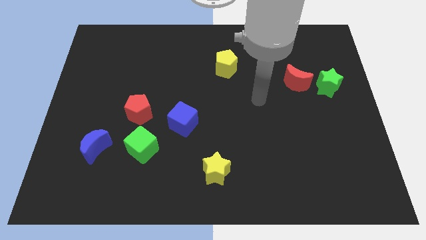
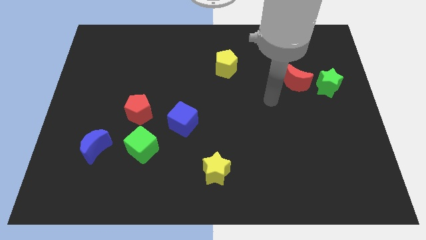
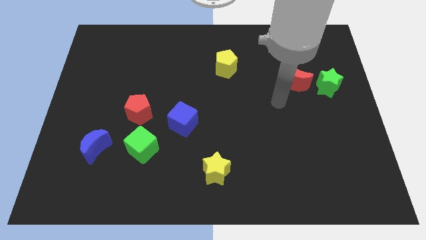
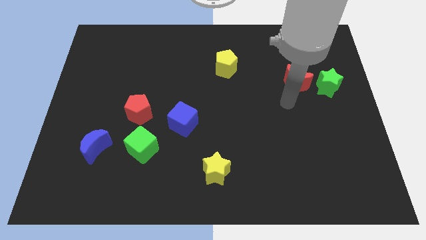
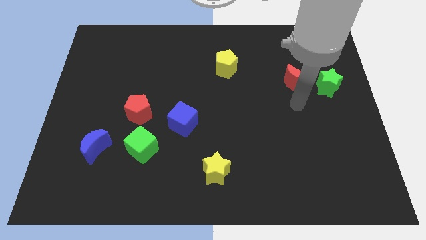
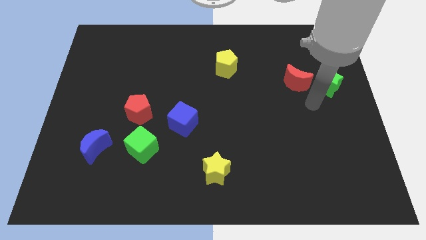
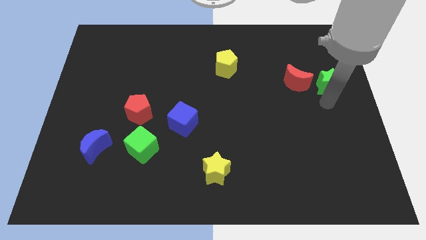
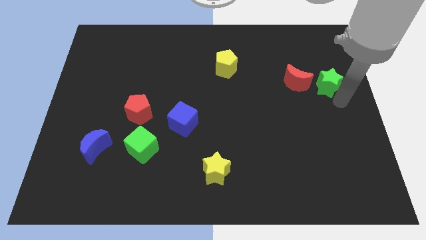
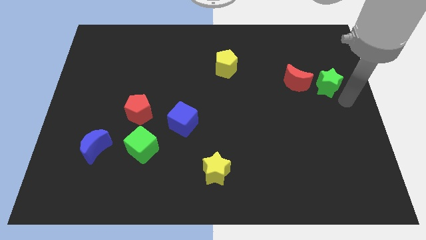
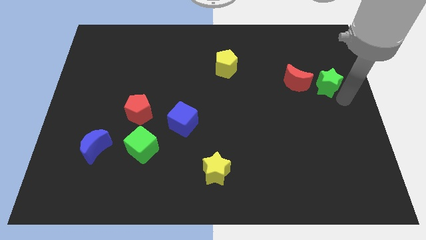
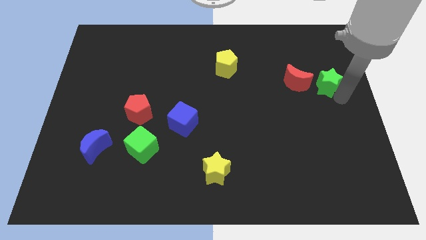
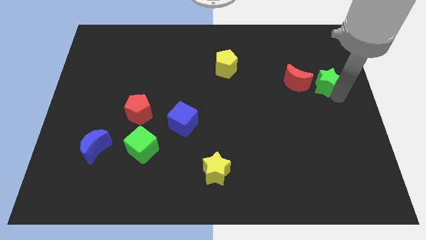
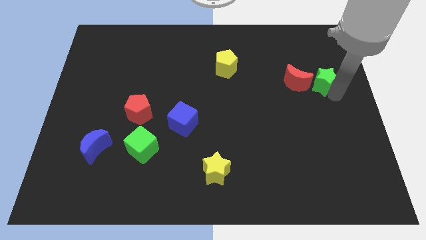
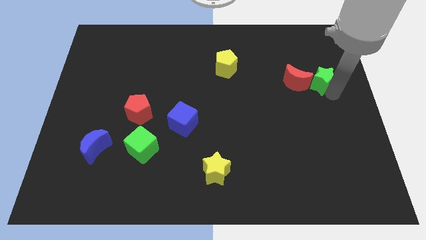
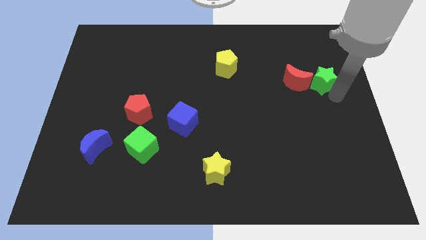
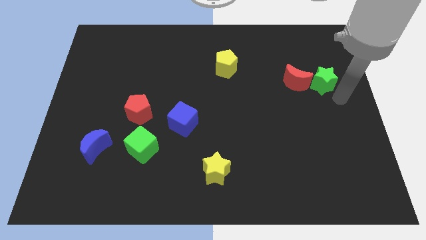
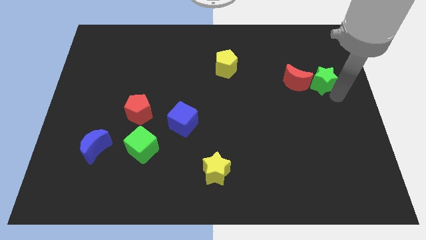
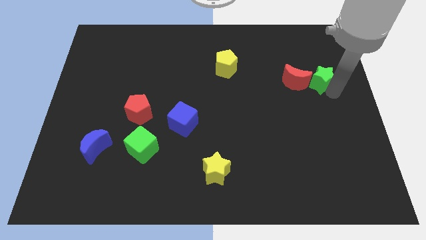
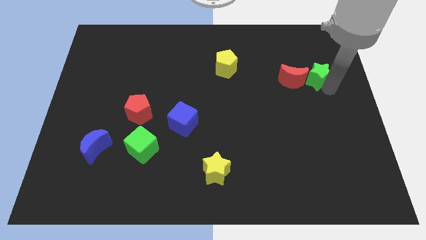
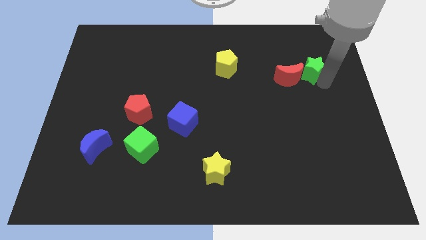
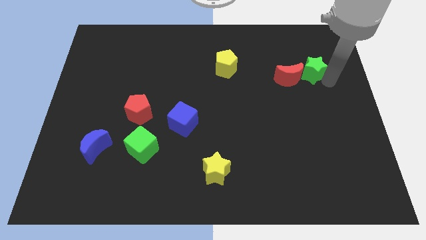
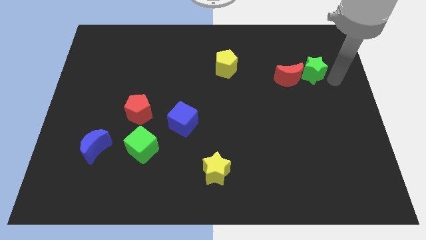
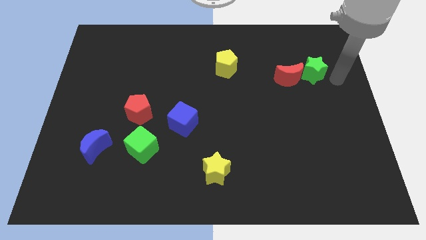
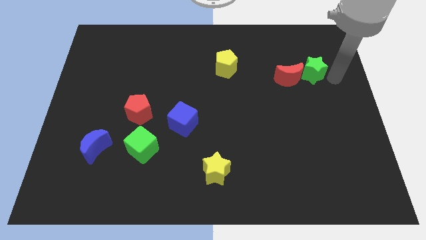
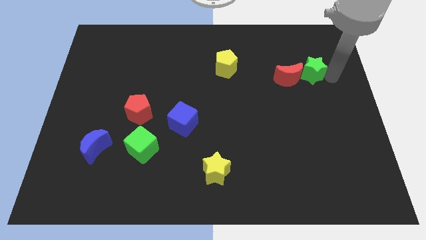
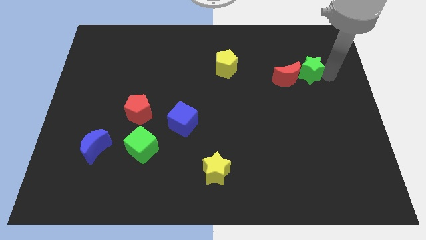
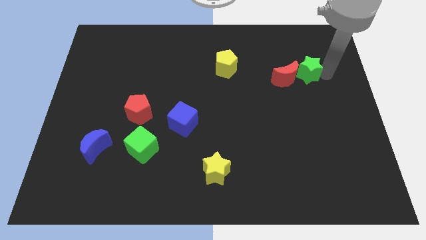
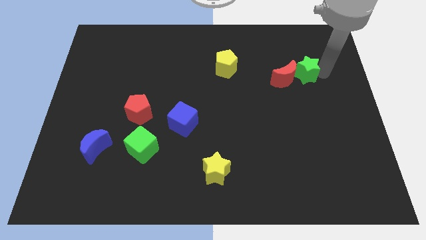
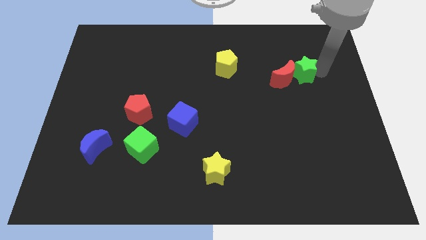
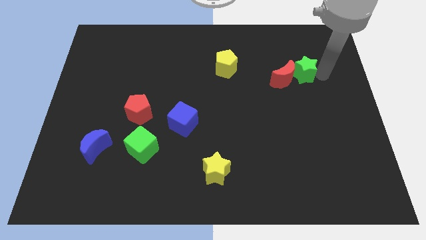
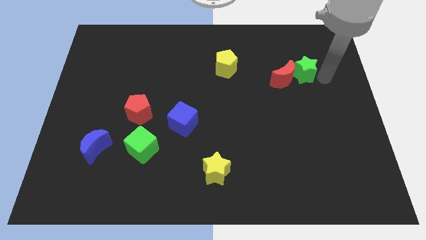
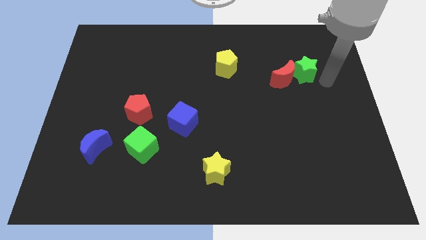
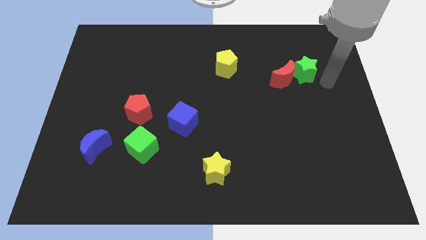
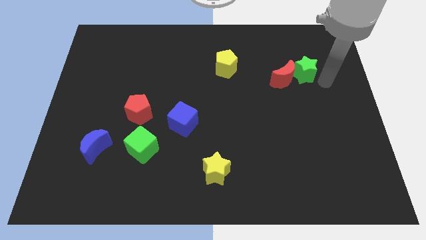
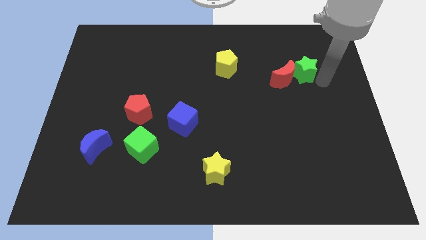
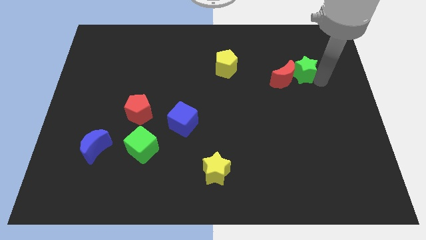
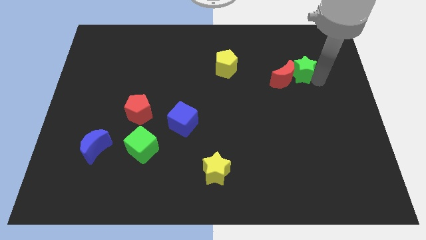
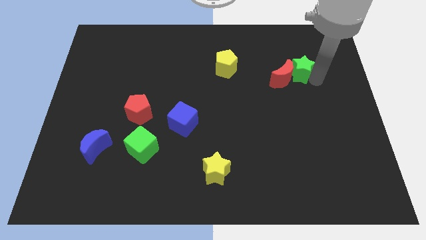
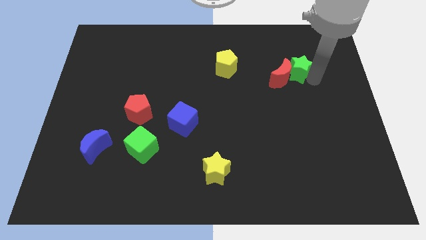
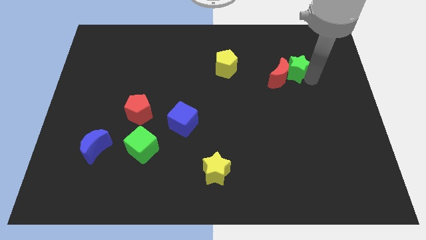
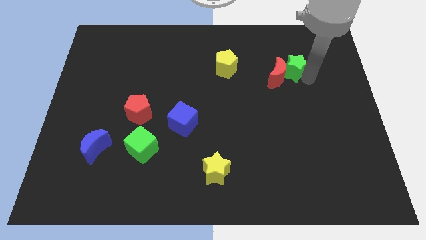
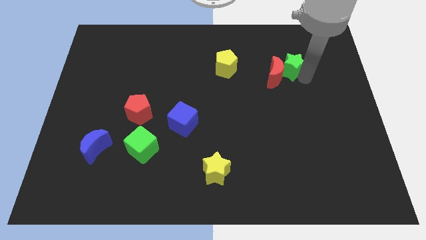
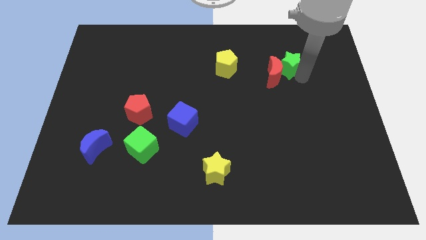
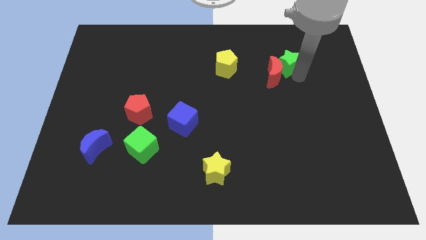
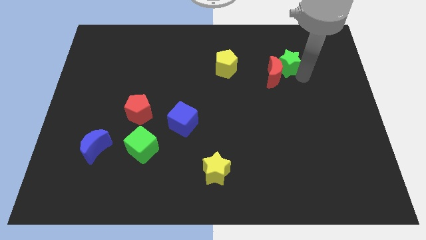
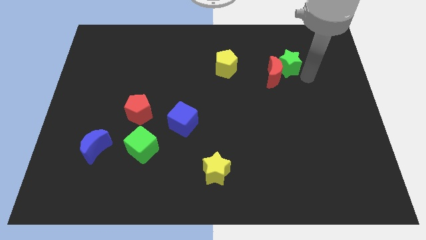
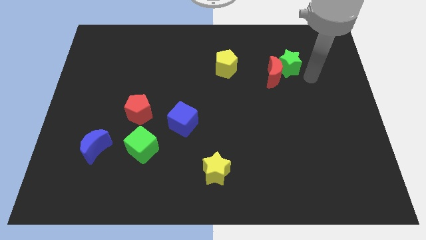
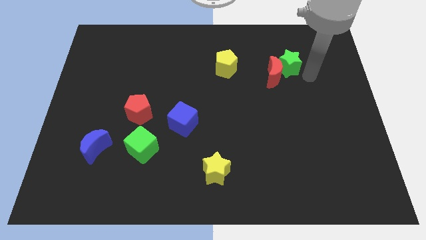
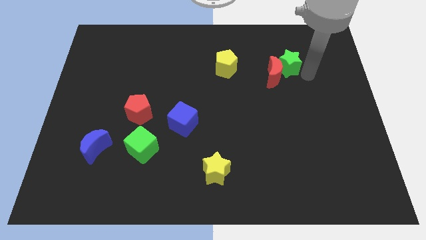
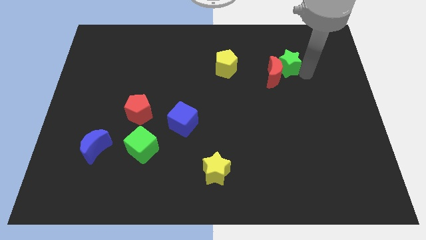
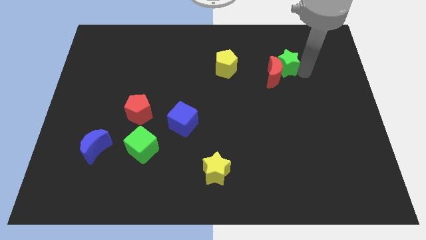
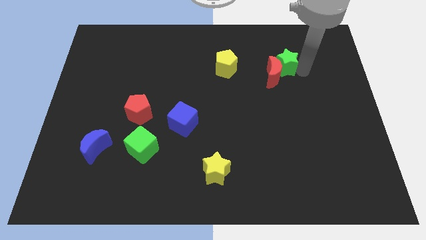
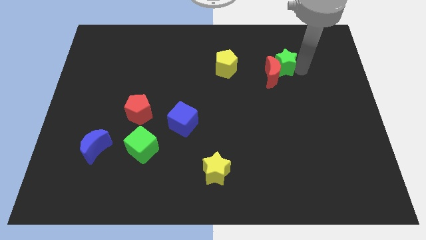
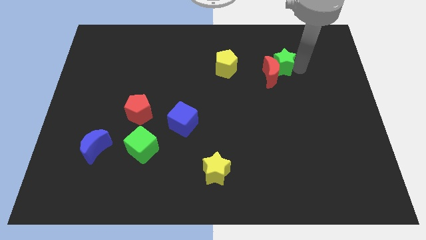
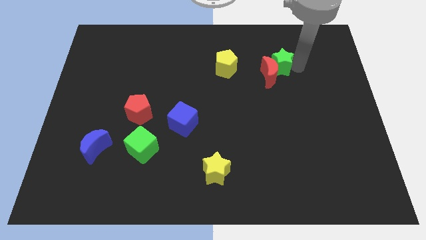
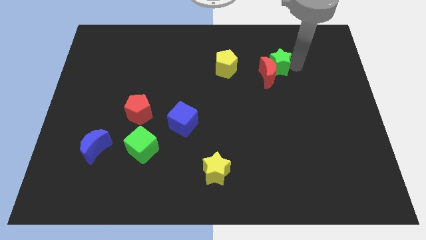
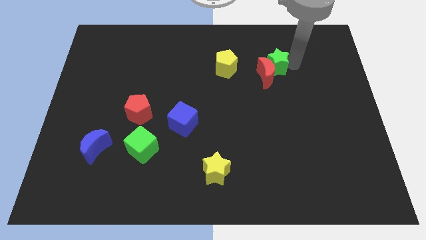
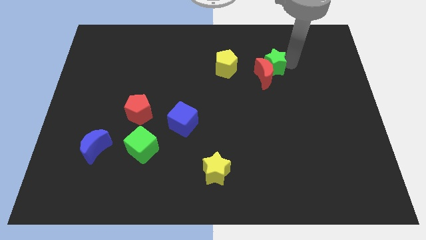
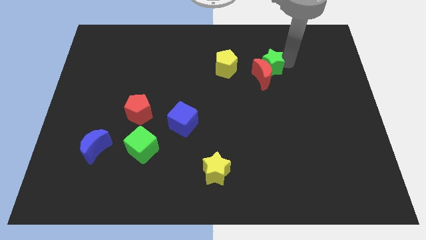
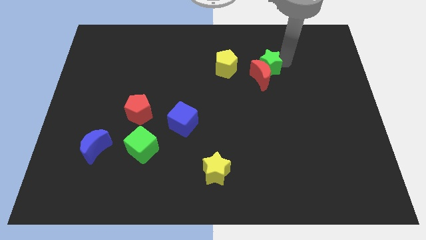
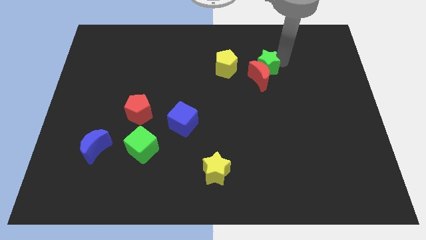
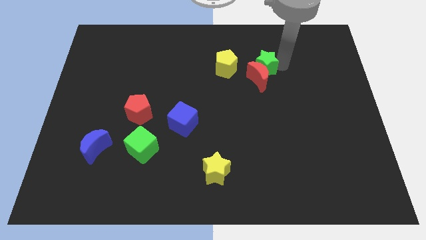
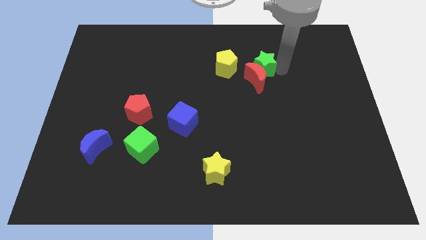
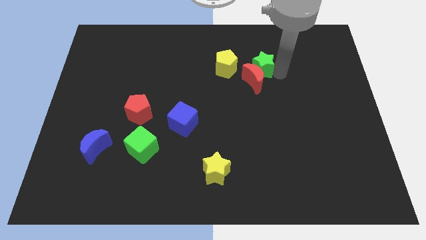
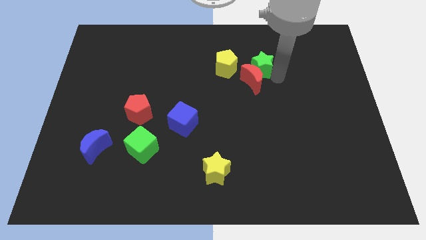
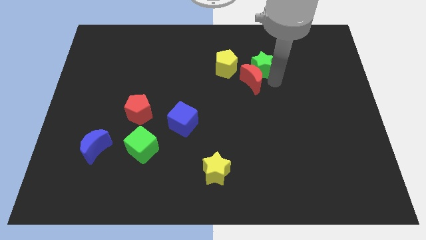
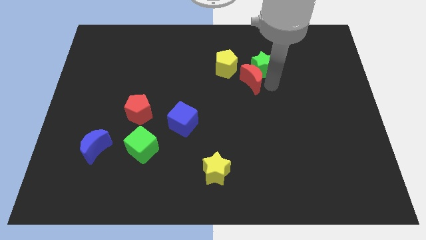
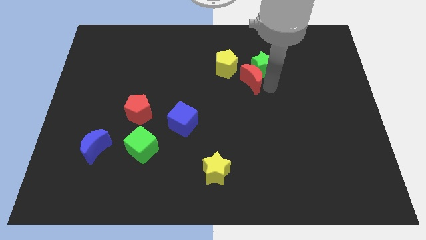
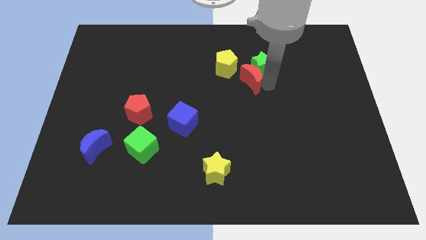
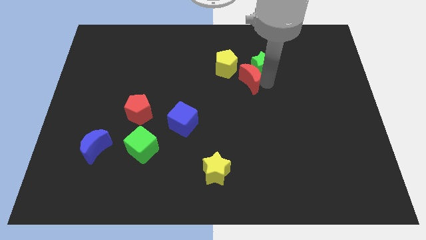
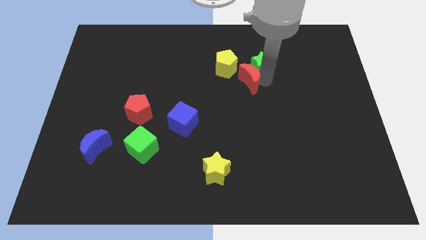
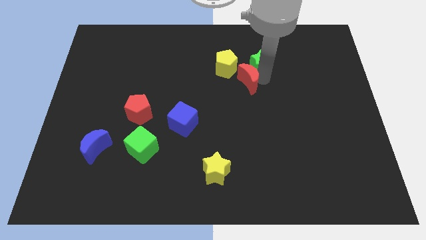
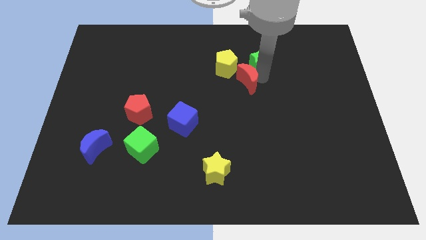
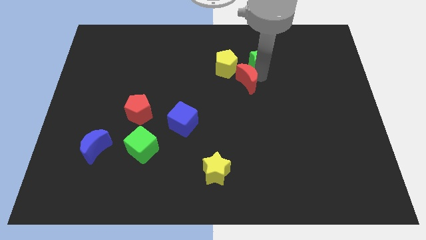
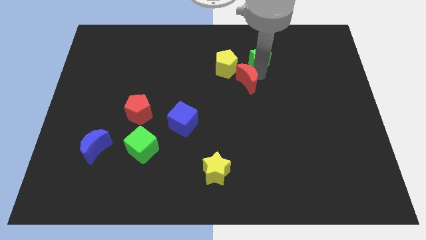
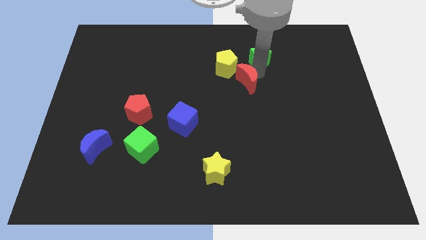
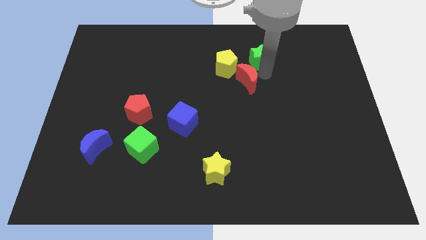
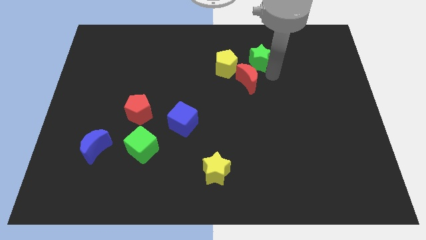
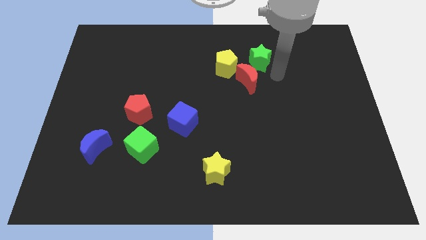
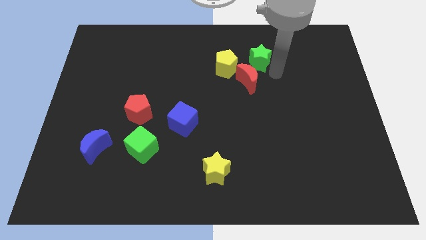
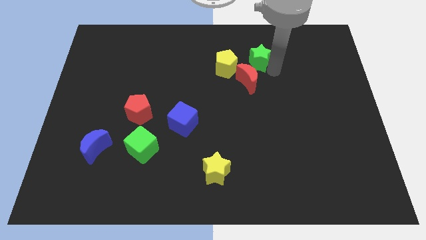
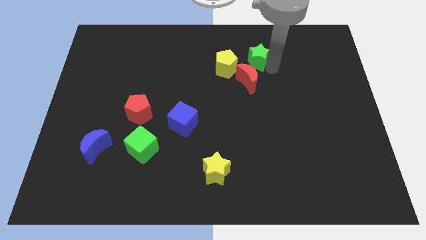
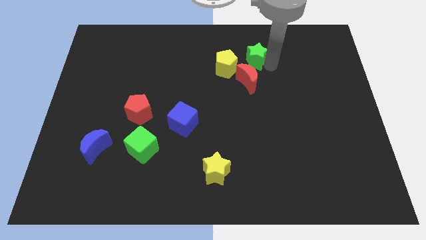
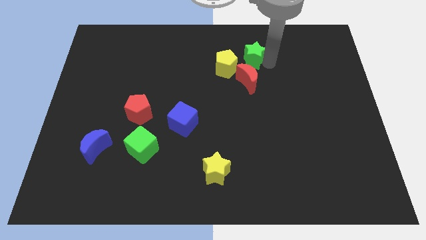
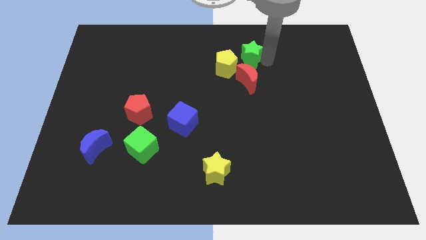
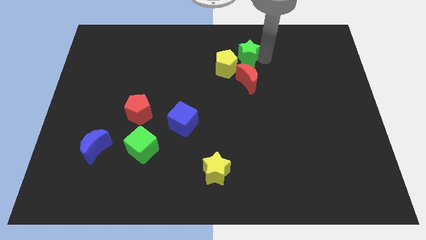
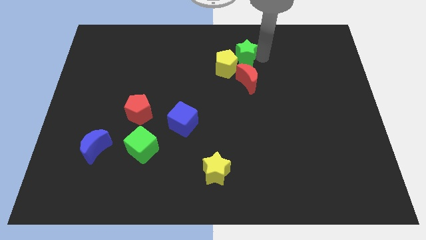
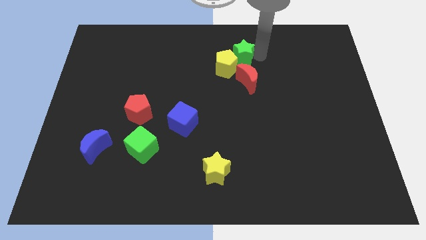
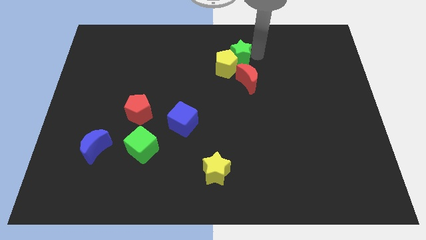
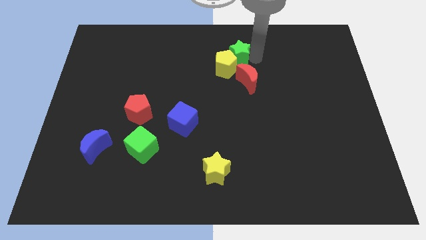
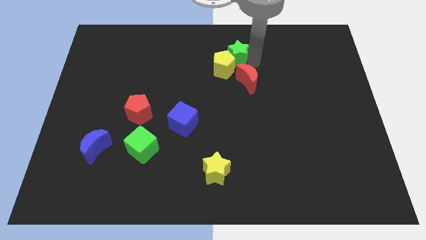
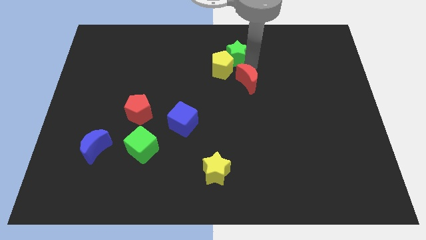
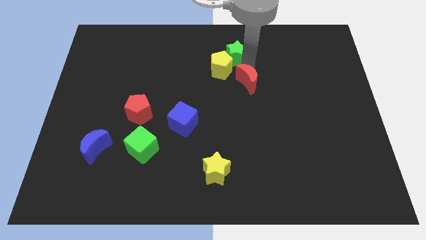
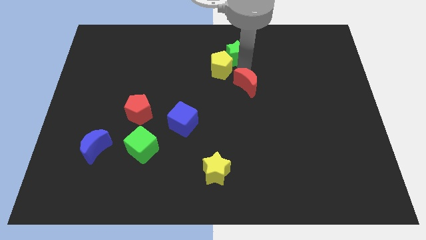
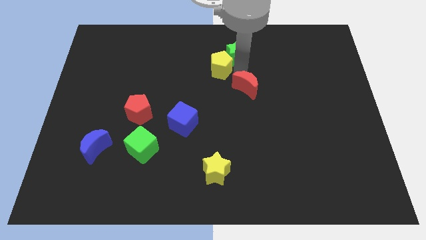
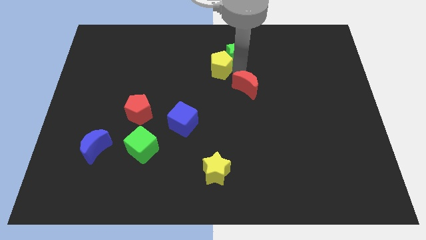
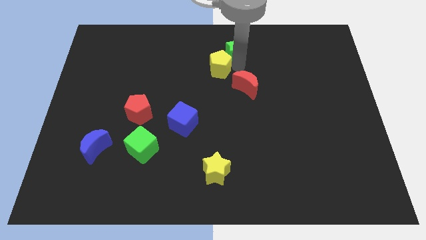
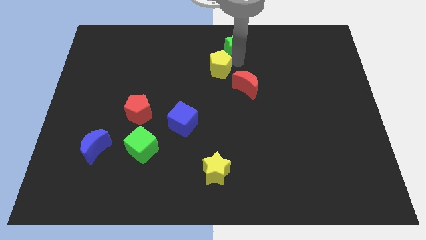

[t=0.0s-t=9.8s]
put the green star to the top
